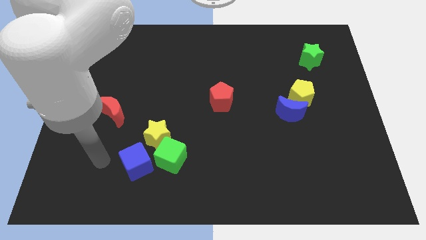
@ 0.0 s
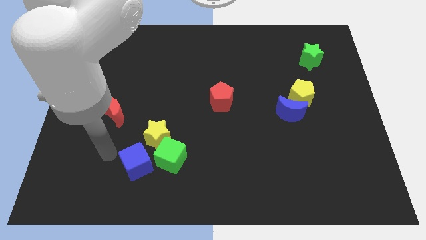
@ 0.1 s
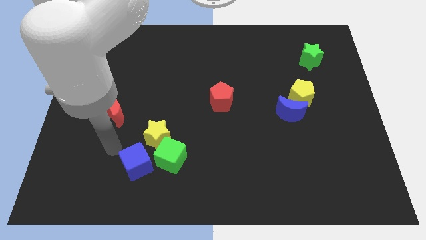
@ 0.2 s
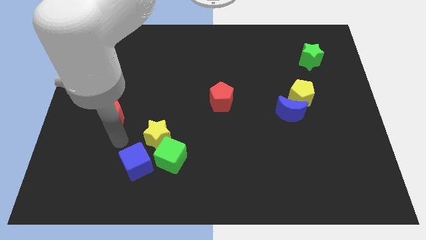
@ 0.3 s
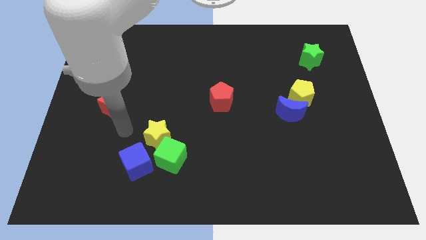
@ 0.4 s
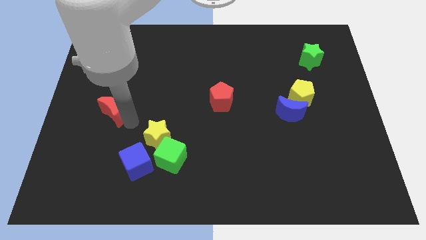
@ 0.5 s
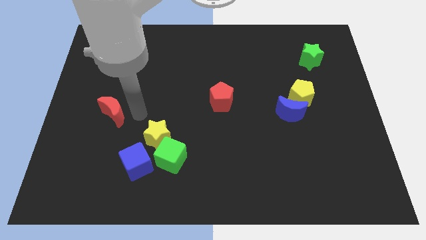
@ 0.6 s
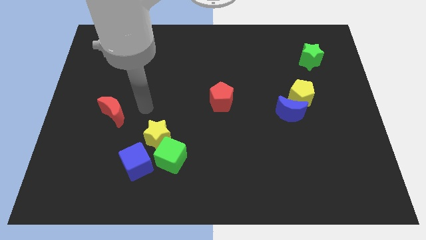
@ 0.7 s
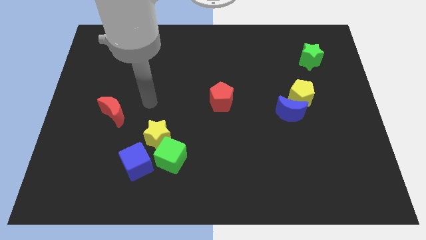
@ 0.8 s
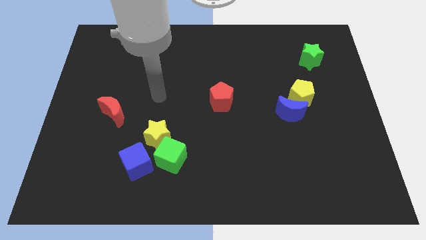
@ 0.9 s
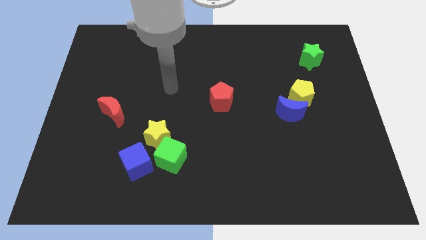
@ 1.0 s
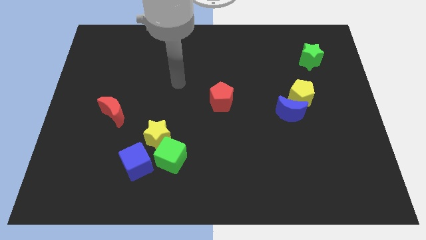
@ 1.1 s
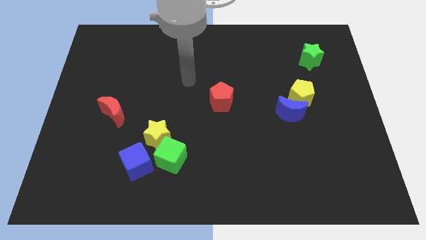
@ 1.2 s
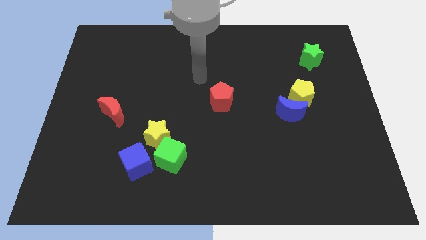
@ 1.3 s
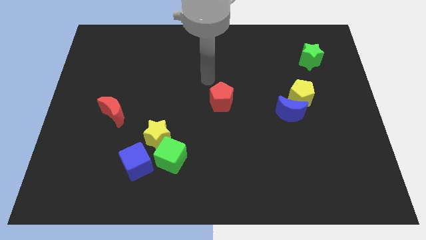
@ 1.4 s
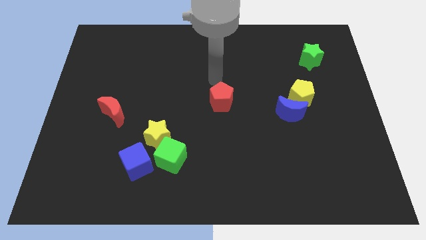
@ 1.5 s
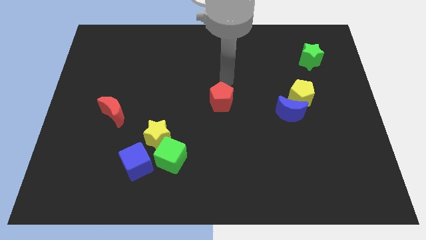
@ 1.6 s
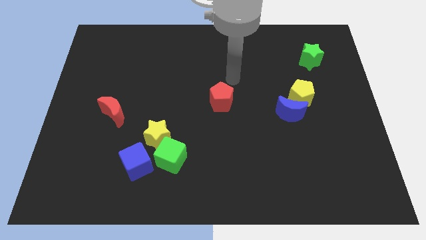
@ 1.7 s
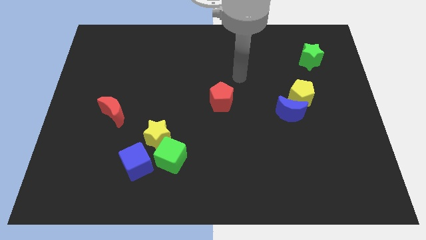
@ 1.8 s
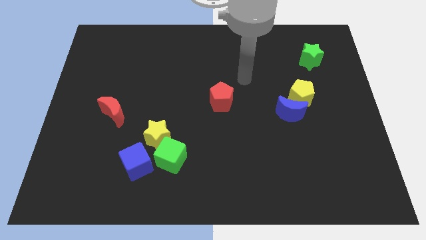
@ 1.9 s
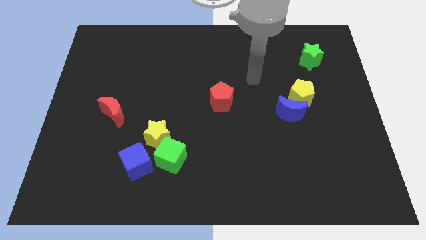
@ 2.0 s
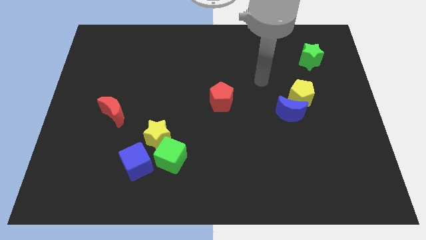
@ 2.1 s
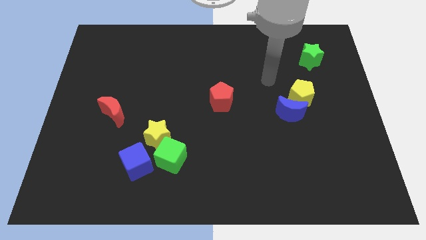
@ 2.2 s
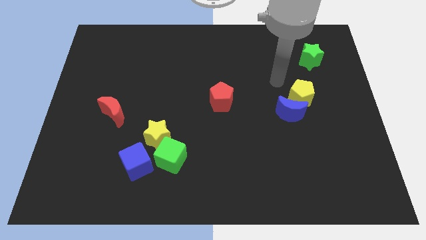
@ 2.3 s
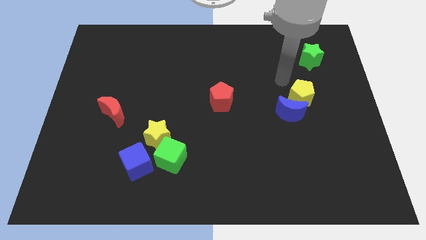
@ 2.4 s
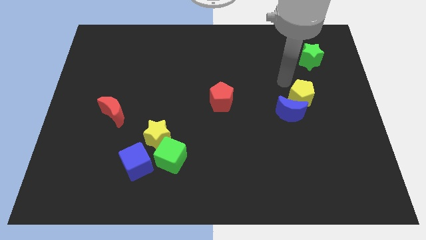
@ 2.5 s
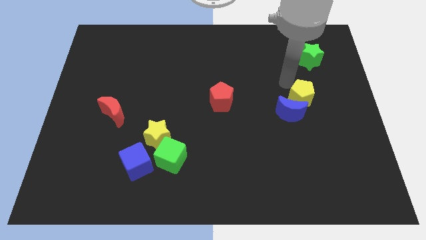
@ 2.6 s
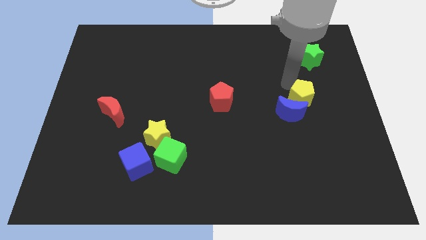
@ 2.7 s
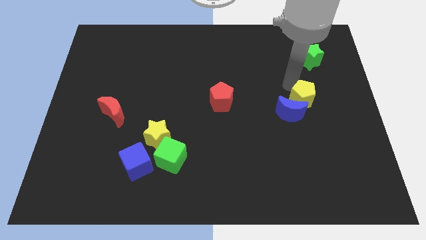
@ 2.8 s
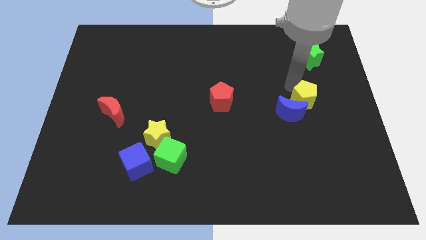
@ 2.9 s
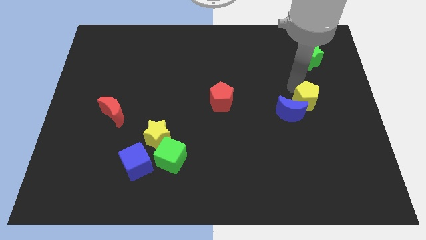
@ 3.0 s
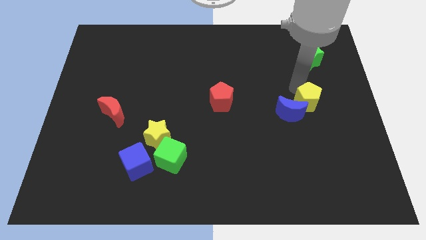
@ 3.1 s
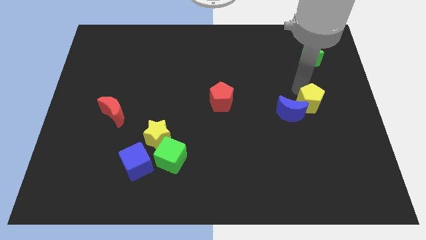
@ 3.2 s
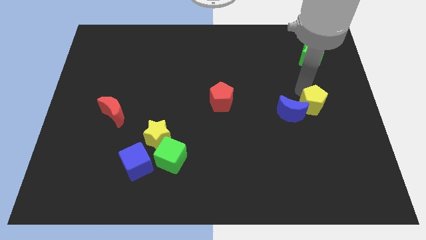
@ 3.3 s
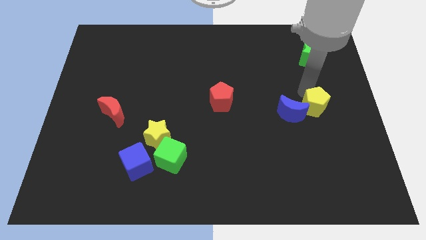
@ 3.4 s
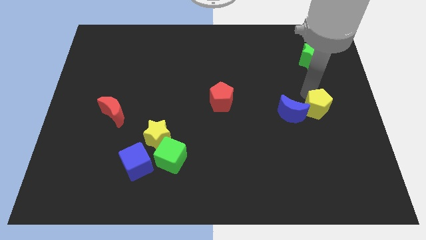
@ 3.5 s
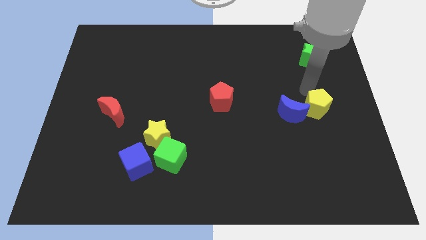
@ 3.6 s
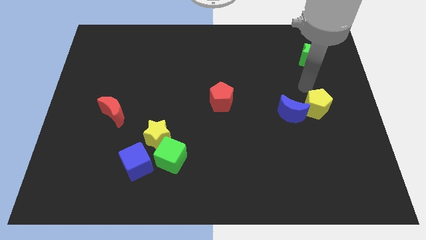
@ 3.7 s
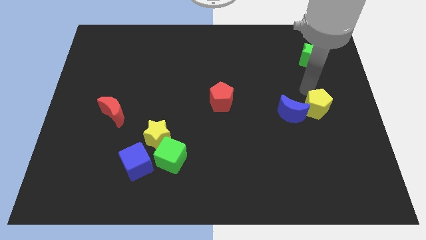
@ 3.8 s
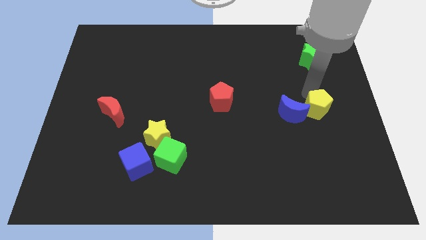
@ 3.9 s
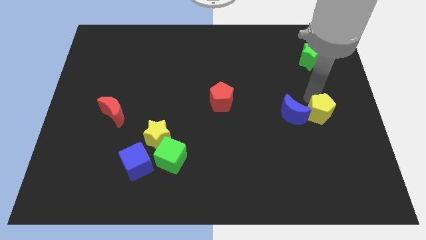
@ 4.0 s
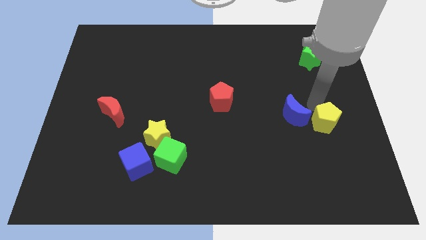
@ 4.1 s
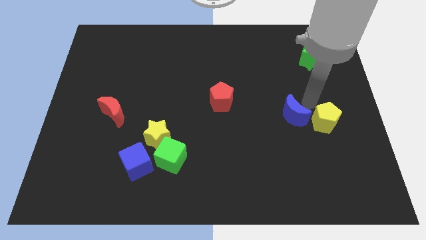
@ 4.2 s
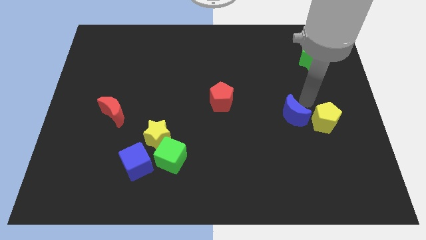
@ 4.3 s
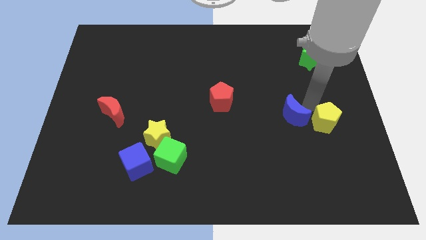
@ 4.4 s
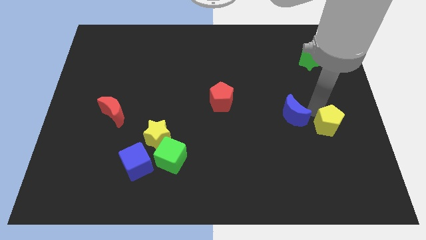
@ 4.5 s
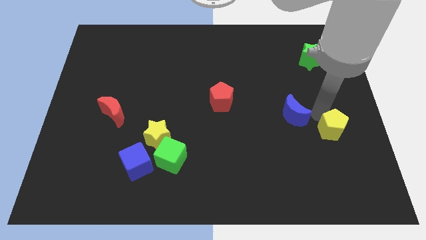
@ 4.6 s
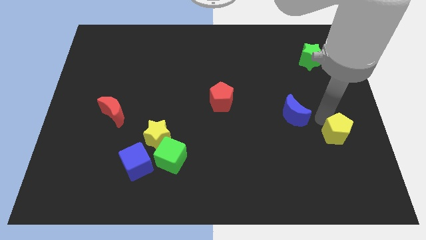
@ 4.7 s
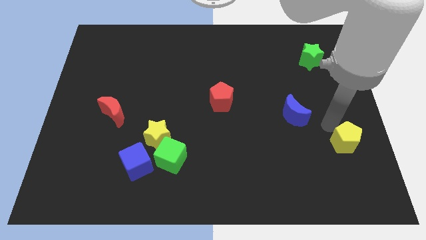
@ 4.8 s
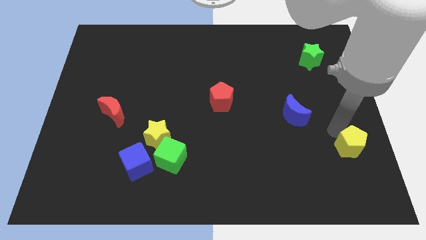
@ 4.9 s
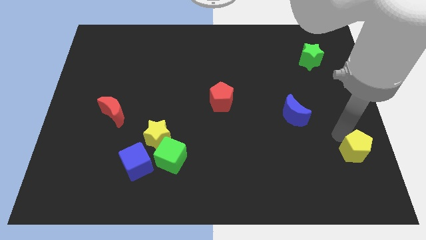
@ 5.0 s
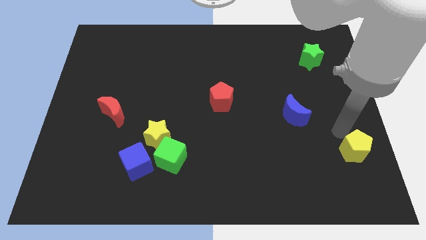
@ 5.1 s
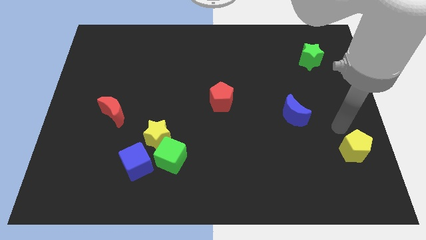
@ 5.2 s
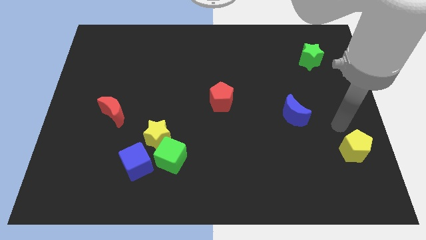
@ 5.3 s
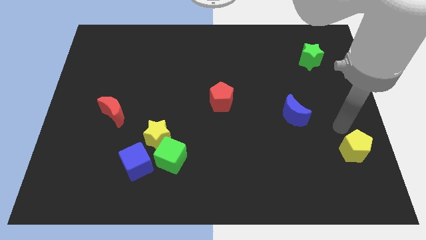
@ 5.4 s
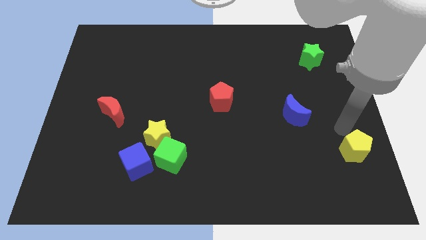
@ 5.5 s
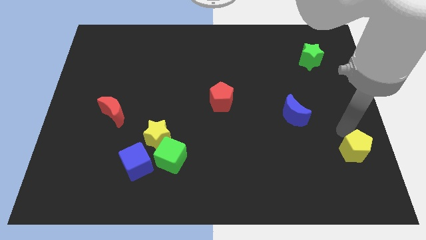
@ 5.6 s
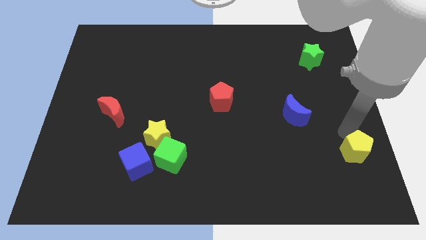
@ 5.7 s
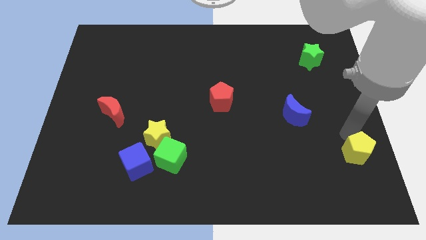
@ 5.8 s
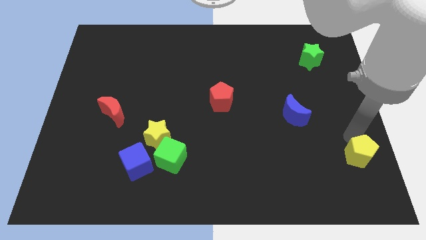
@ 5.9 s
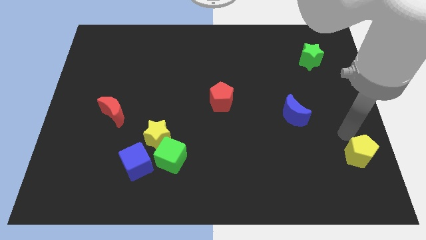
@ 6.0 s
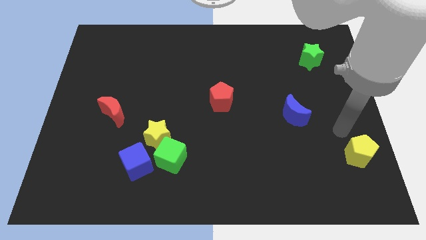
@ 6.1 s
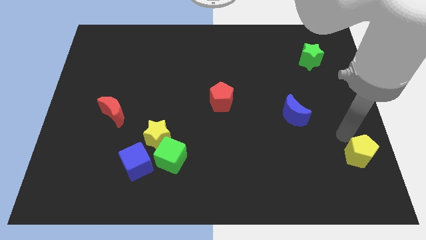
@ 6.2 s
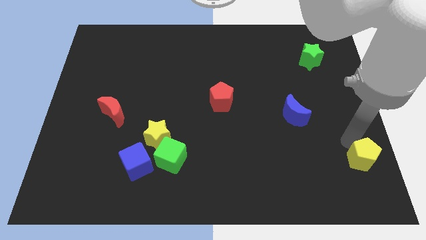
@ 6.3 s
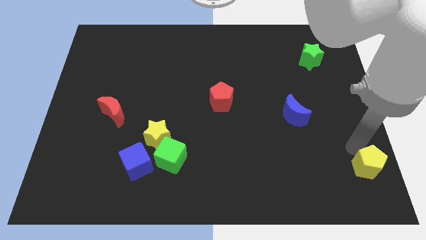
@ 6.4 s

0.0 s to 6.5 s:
slide the yellow pentagon to the lower right corner

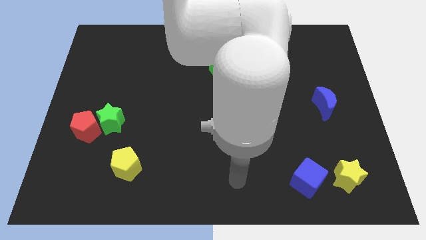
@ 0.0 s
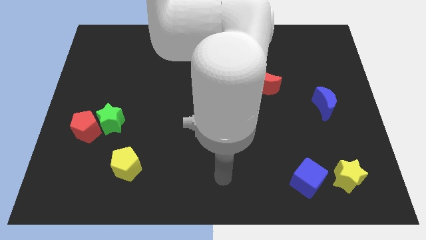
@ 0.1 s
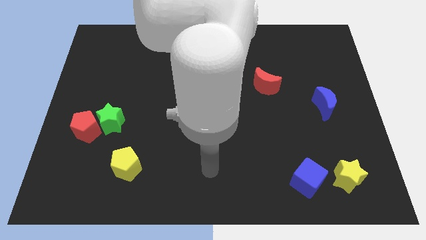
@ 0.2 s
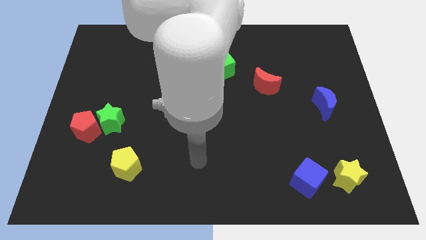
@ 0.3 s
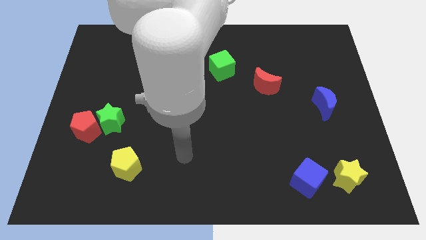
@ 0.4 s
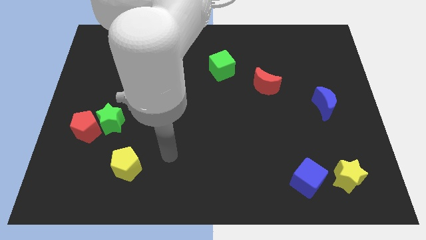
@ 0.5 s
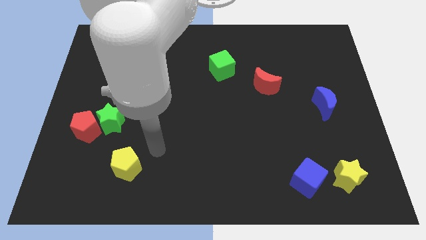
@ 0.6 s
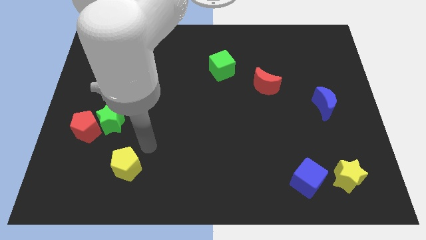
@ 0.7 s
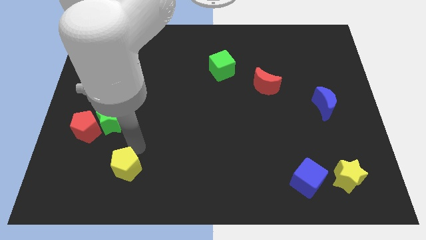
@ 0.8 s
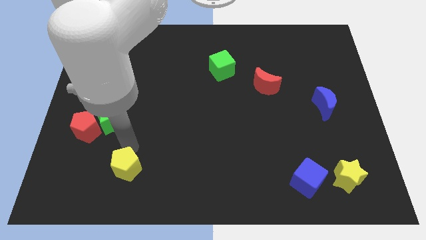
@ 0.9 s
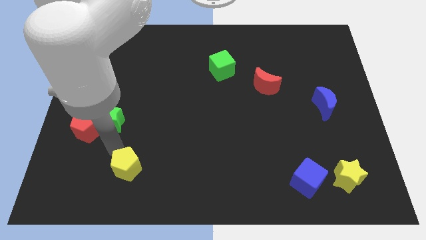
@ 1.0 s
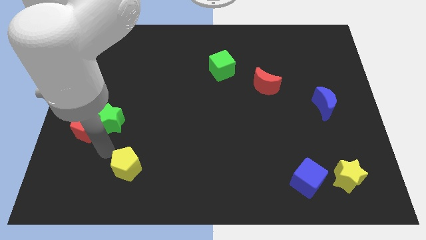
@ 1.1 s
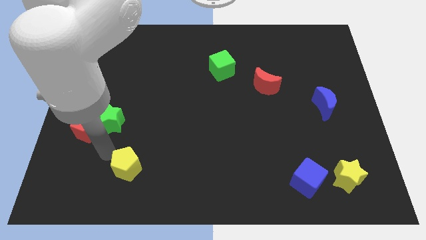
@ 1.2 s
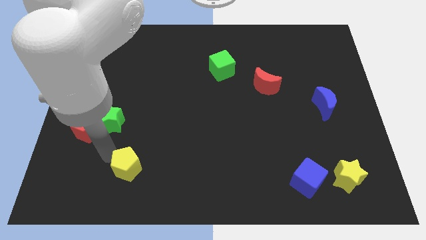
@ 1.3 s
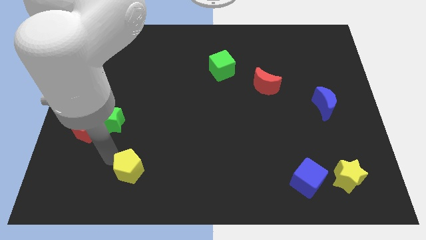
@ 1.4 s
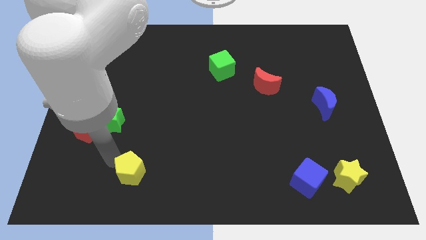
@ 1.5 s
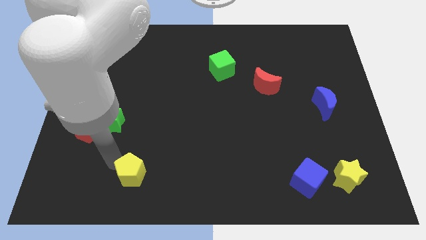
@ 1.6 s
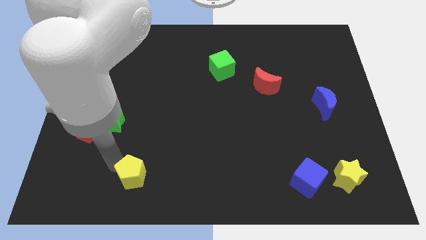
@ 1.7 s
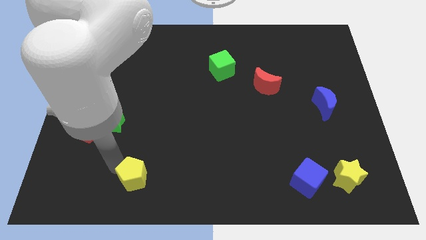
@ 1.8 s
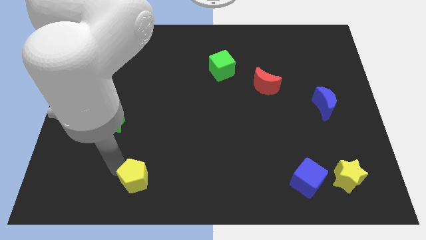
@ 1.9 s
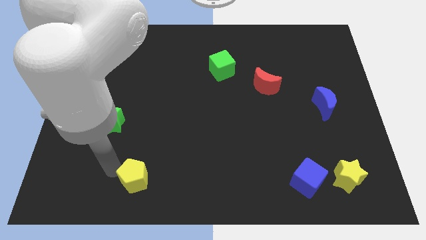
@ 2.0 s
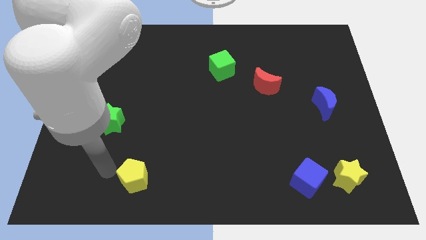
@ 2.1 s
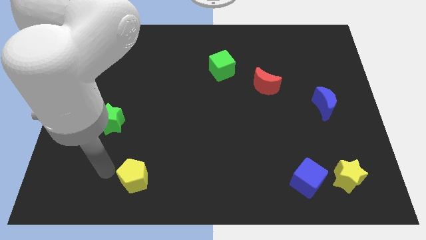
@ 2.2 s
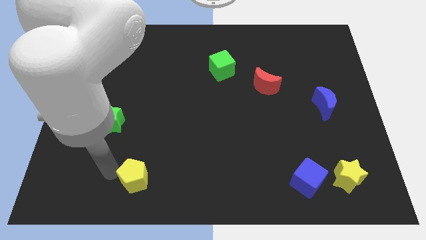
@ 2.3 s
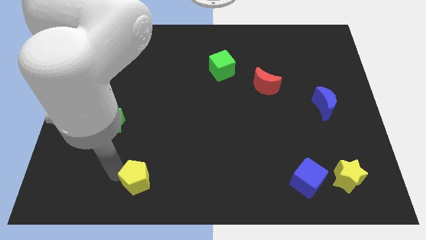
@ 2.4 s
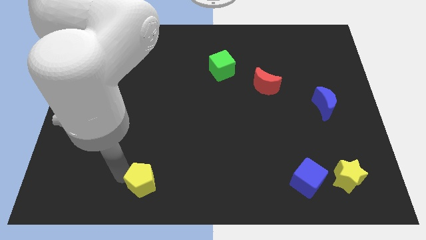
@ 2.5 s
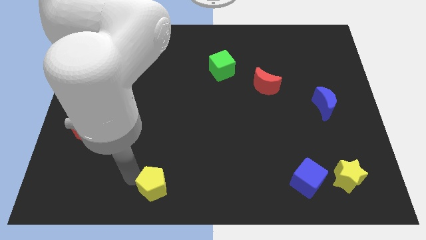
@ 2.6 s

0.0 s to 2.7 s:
put the yellow pentagon to the bottom side
